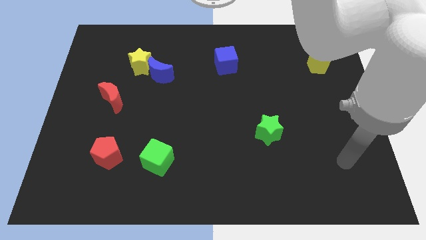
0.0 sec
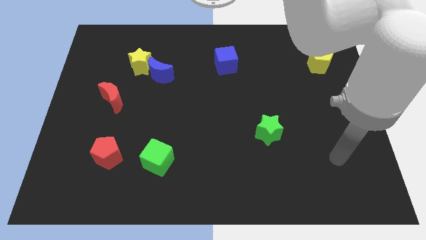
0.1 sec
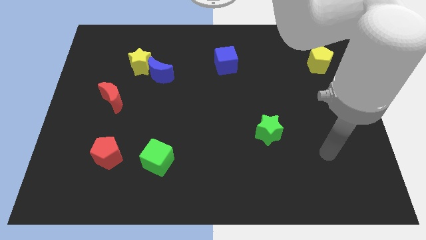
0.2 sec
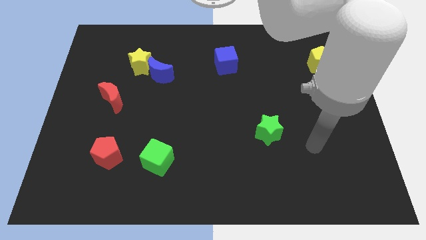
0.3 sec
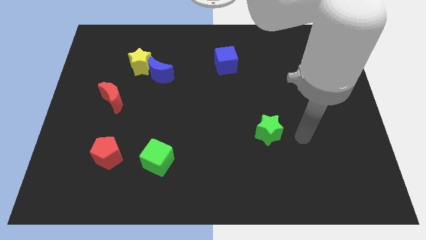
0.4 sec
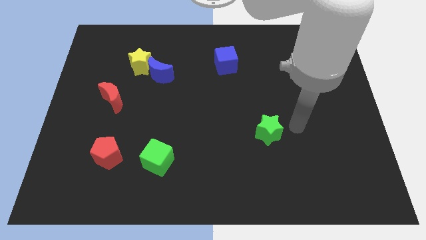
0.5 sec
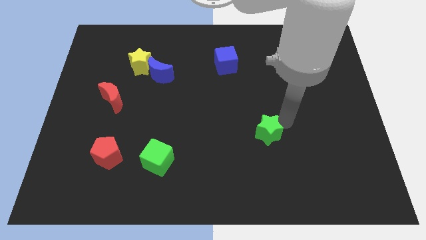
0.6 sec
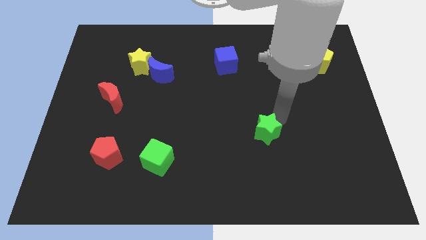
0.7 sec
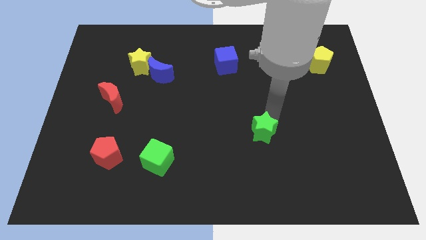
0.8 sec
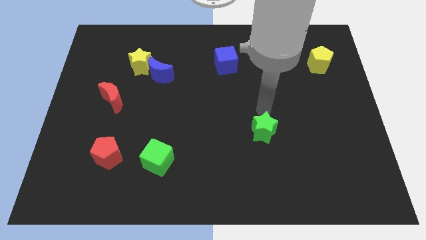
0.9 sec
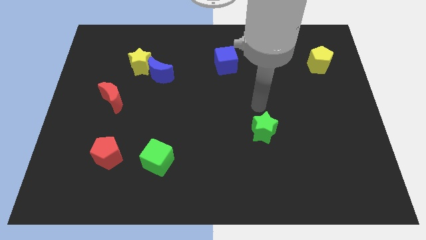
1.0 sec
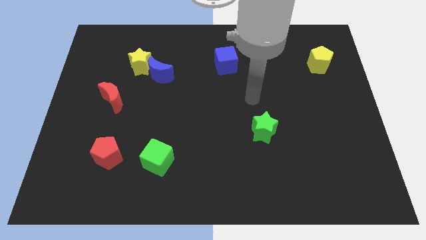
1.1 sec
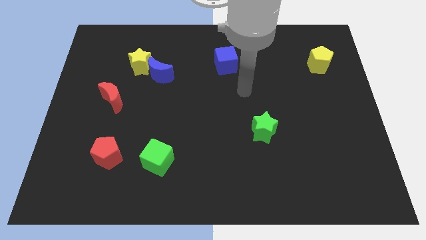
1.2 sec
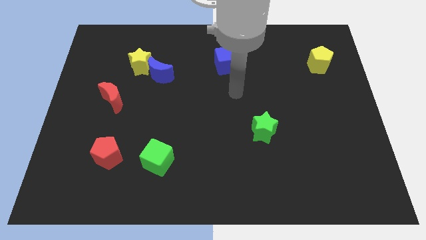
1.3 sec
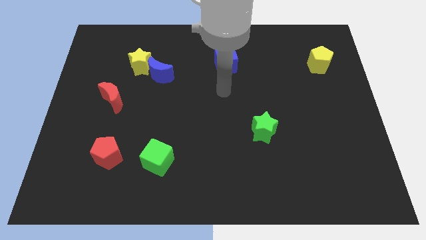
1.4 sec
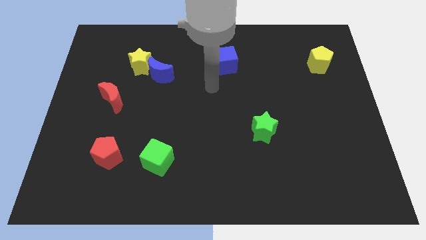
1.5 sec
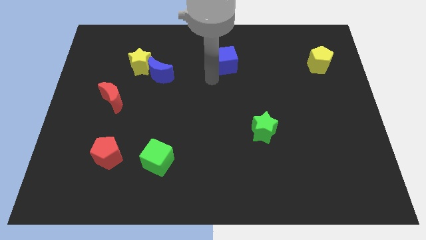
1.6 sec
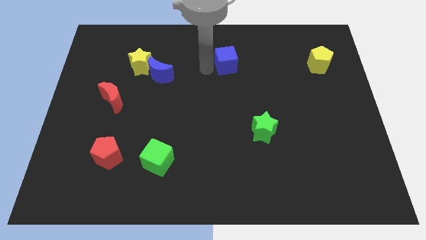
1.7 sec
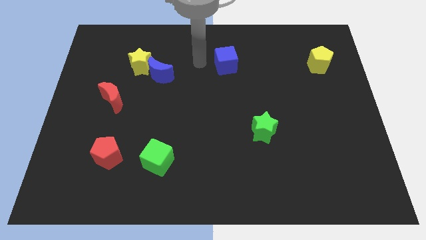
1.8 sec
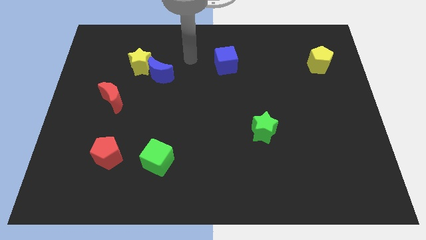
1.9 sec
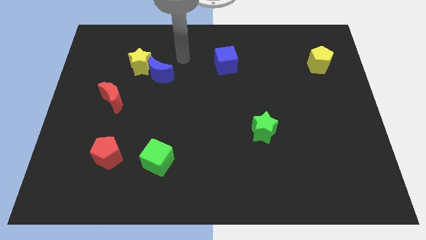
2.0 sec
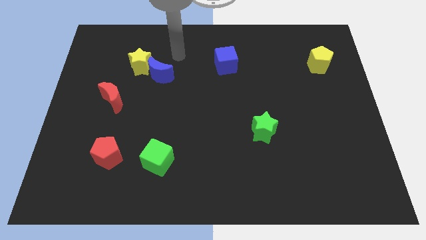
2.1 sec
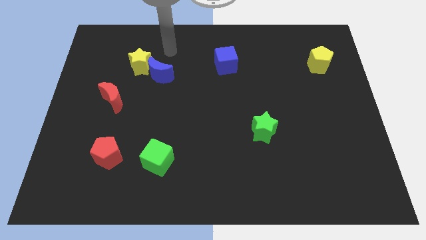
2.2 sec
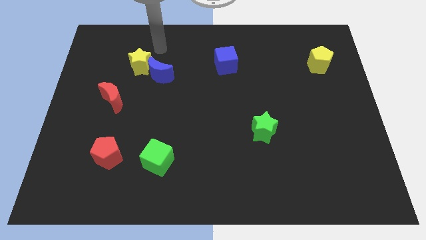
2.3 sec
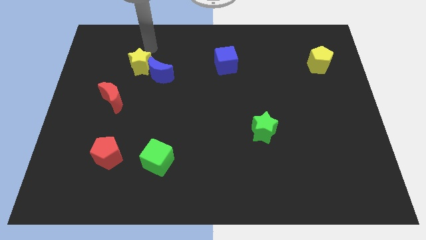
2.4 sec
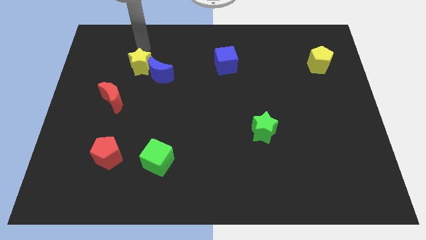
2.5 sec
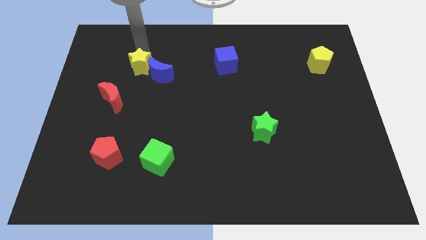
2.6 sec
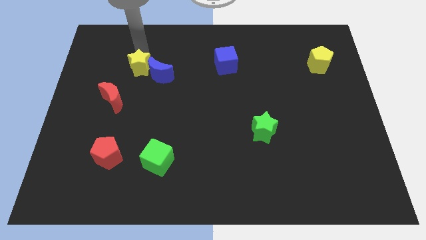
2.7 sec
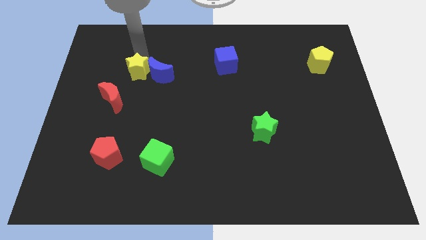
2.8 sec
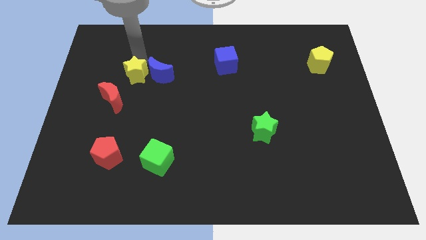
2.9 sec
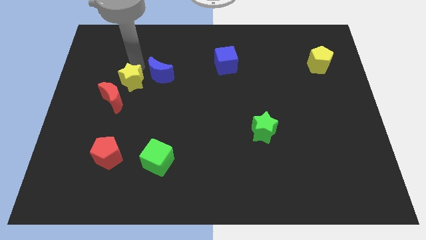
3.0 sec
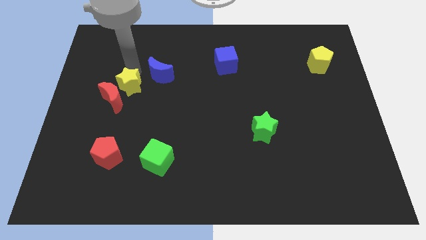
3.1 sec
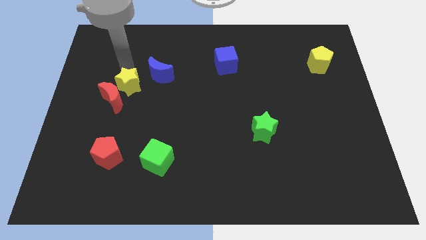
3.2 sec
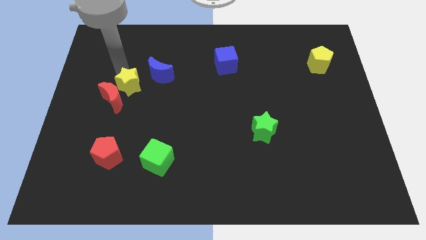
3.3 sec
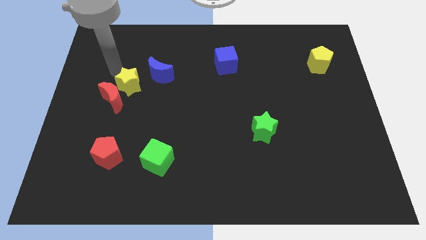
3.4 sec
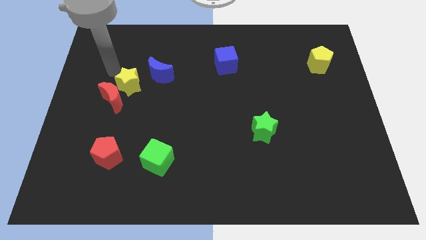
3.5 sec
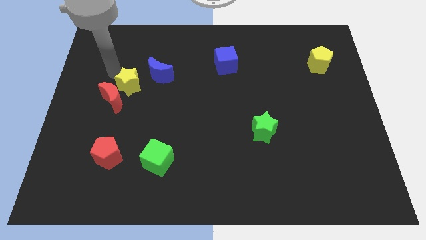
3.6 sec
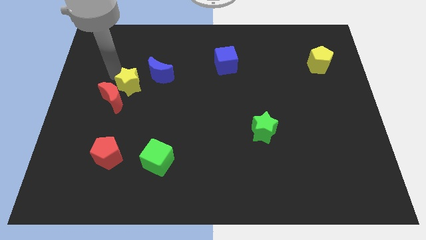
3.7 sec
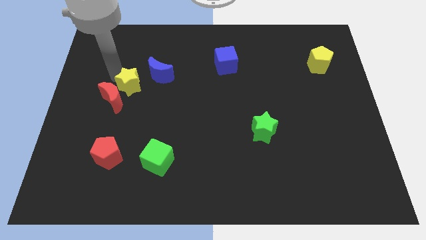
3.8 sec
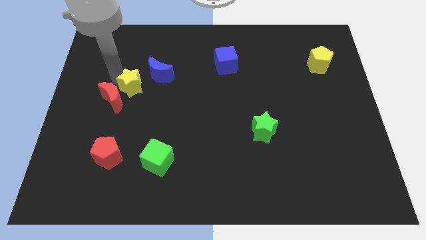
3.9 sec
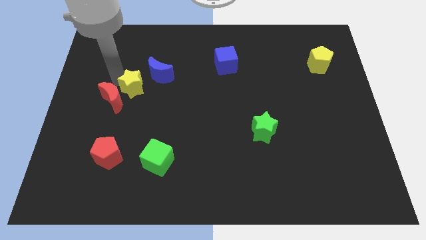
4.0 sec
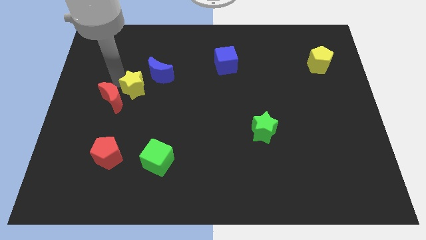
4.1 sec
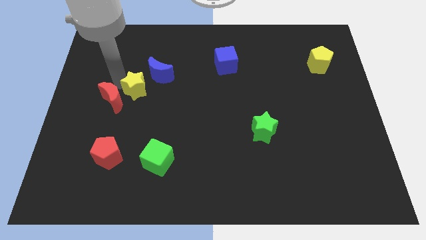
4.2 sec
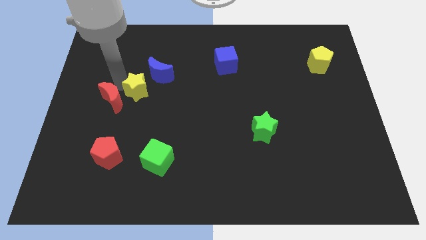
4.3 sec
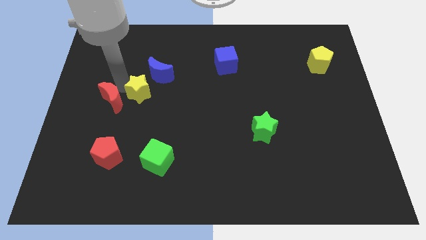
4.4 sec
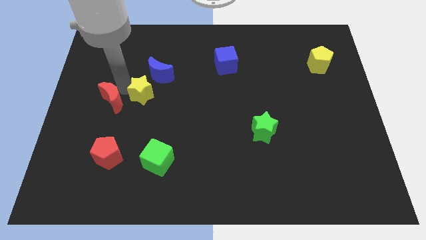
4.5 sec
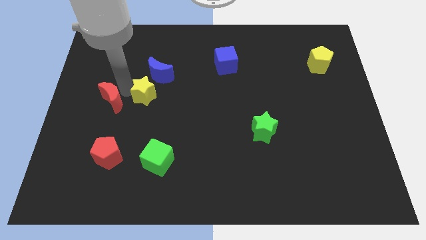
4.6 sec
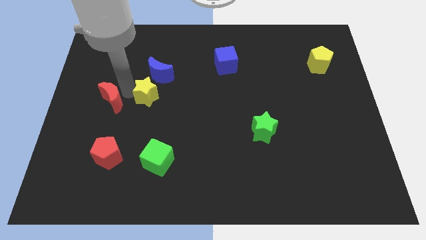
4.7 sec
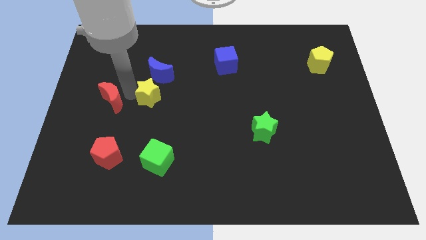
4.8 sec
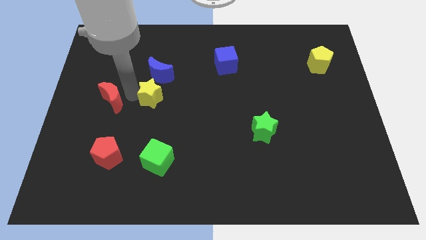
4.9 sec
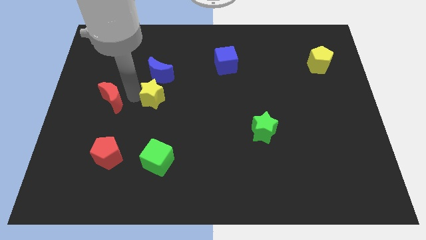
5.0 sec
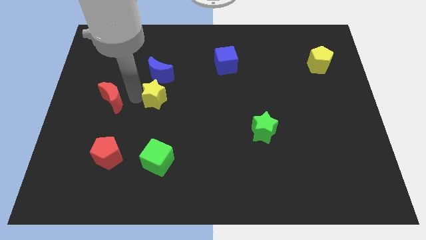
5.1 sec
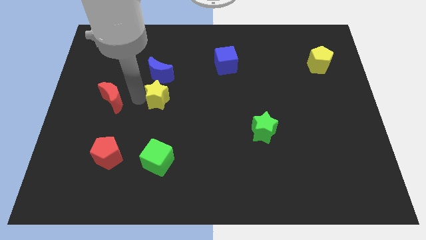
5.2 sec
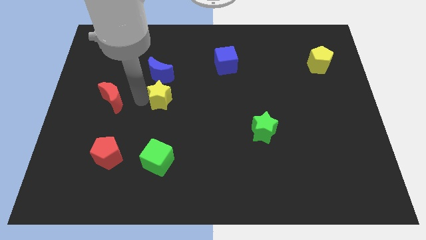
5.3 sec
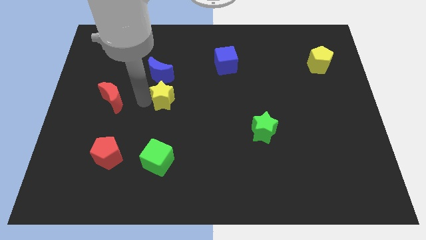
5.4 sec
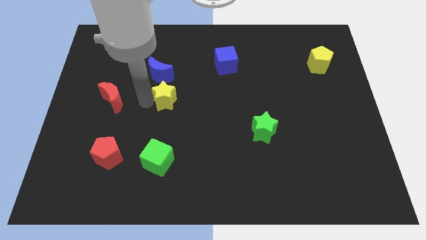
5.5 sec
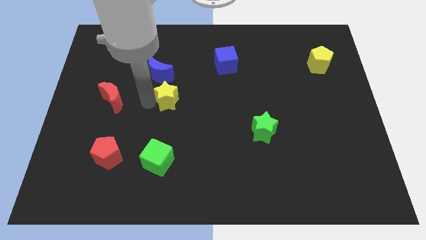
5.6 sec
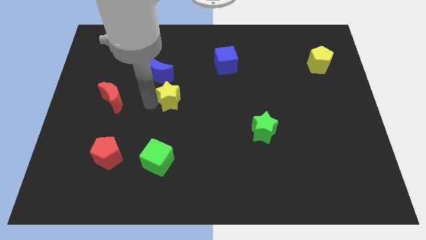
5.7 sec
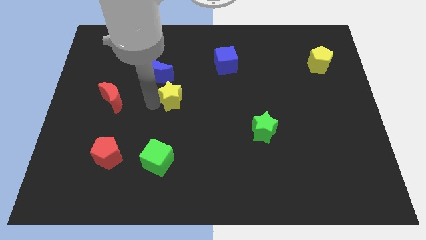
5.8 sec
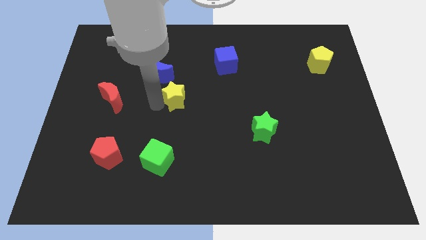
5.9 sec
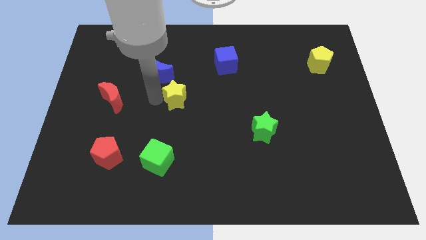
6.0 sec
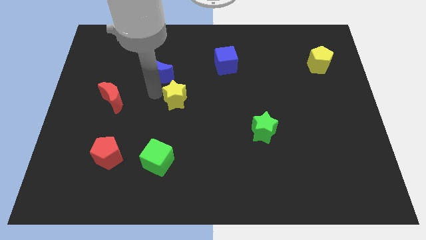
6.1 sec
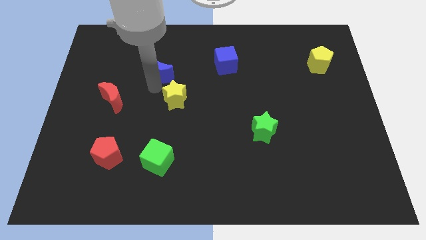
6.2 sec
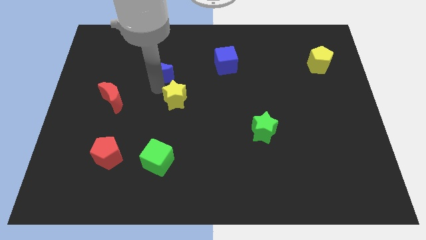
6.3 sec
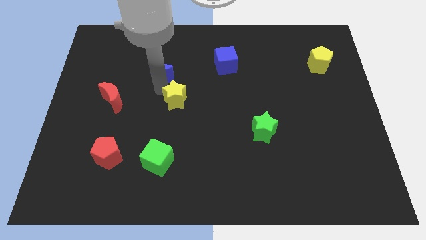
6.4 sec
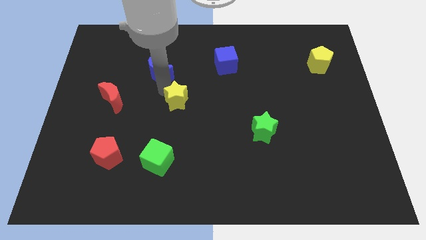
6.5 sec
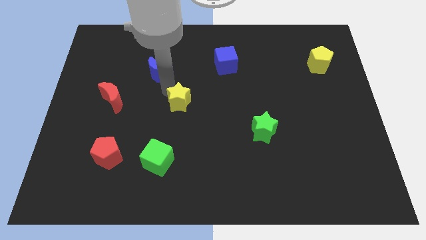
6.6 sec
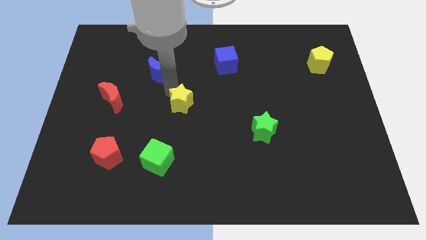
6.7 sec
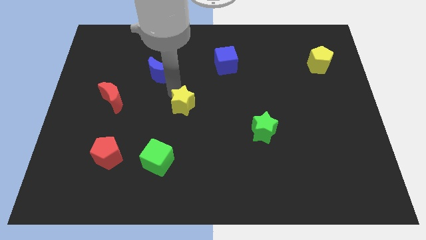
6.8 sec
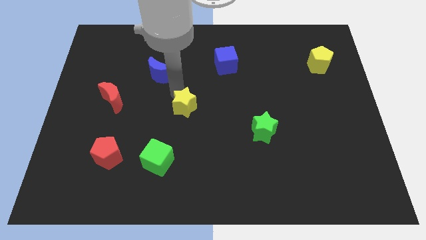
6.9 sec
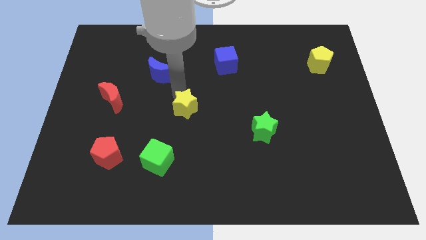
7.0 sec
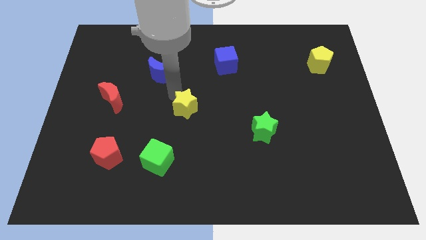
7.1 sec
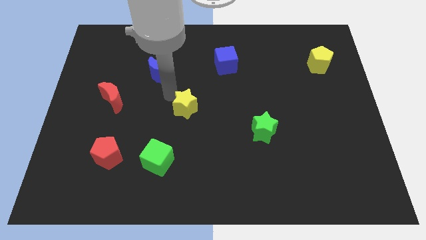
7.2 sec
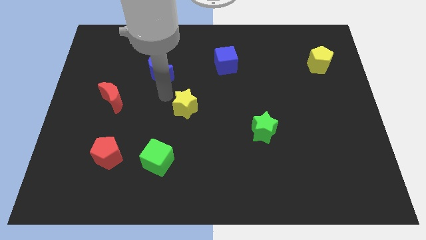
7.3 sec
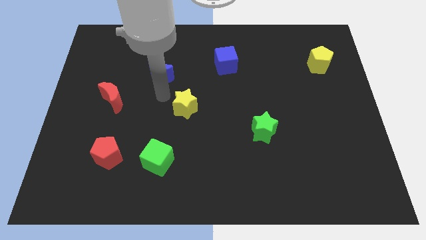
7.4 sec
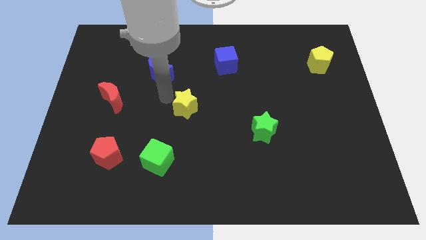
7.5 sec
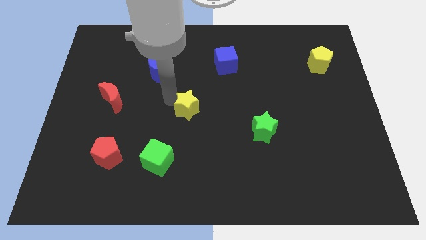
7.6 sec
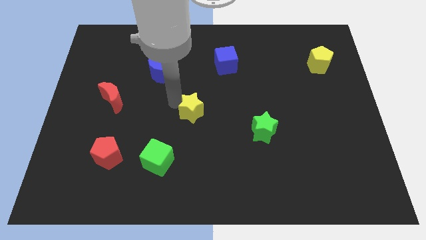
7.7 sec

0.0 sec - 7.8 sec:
move the yellow star down and right

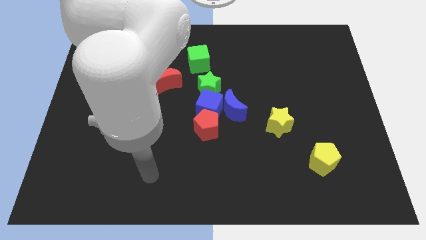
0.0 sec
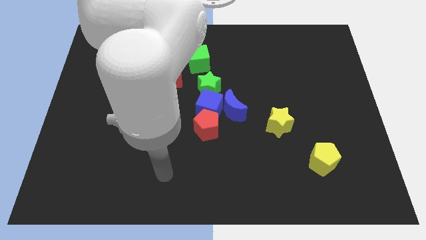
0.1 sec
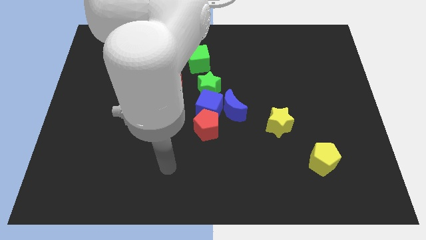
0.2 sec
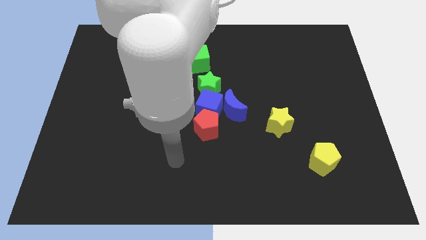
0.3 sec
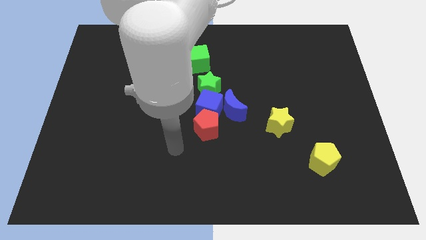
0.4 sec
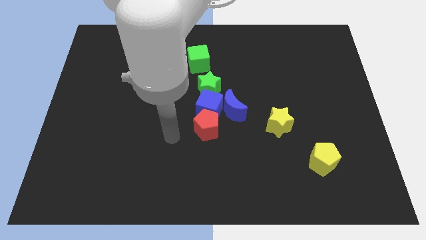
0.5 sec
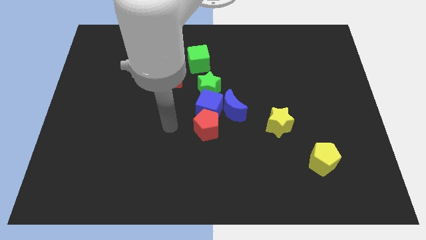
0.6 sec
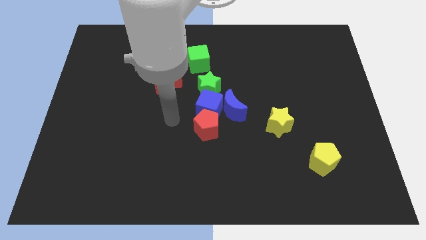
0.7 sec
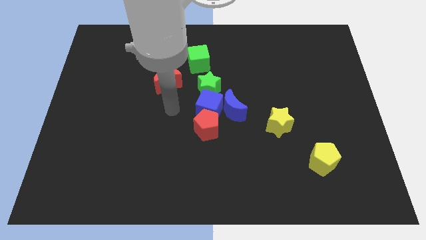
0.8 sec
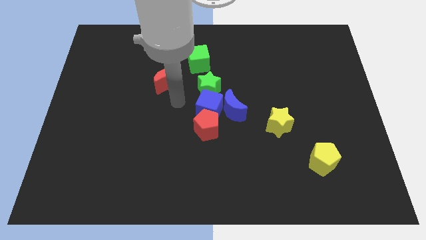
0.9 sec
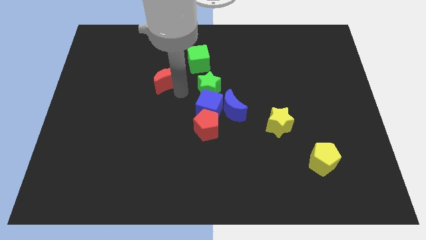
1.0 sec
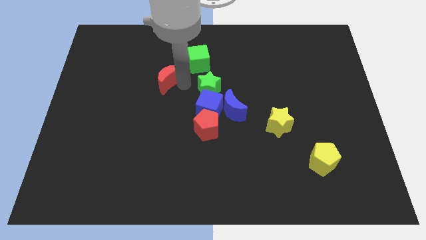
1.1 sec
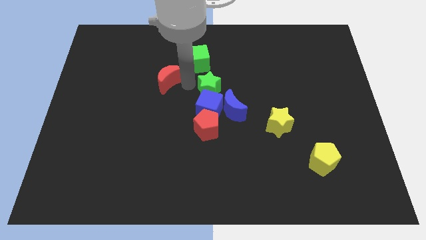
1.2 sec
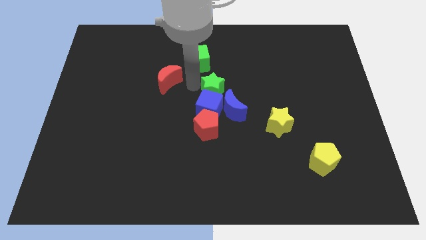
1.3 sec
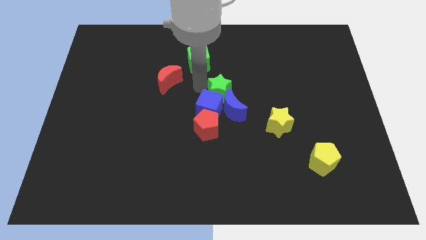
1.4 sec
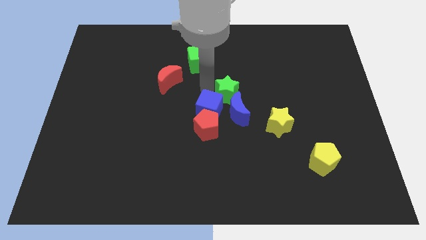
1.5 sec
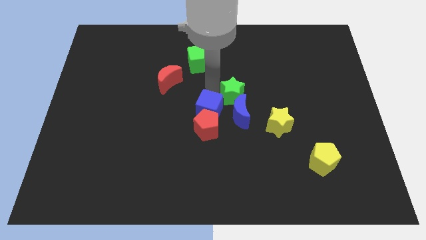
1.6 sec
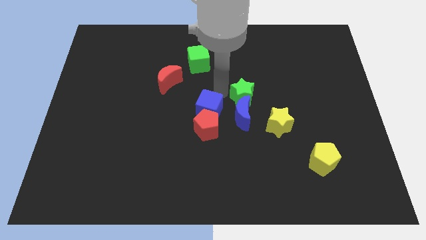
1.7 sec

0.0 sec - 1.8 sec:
push the green star slightly right
